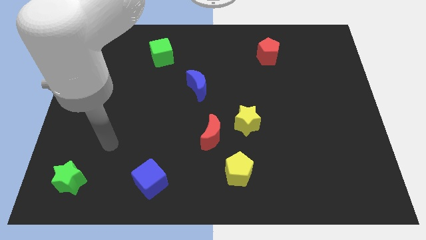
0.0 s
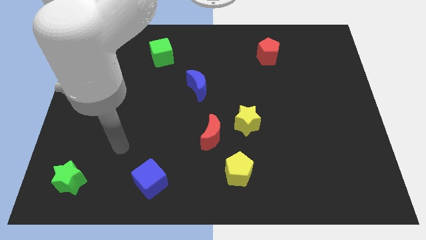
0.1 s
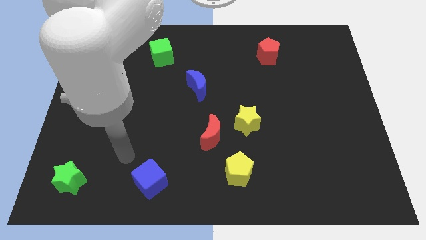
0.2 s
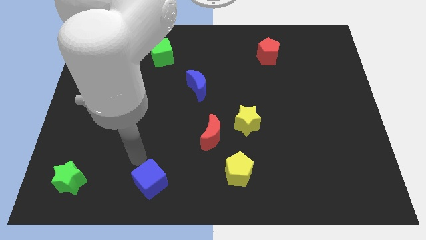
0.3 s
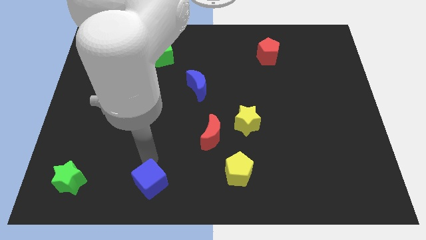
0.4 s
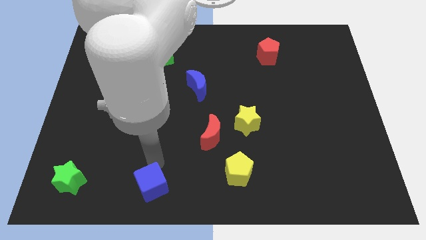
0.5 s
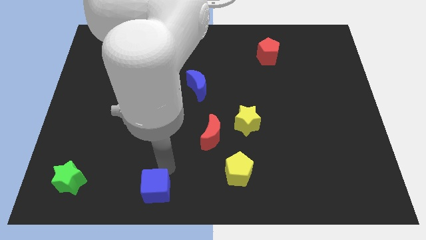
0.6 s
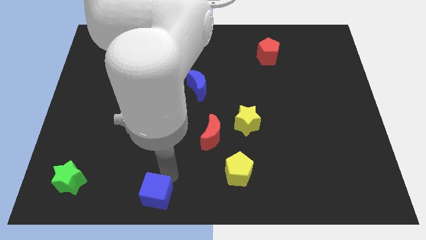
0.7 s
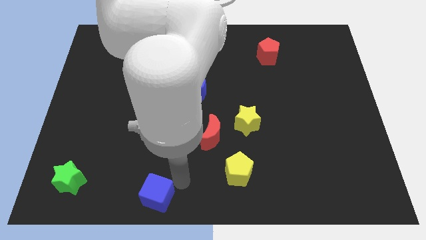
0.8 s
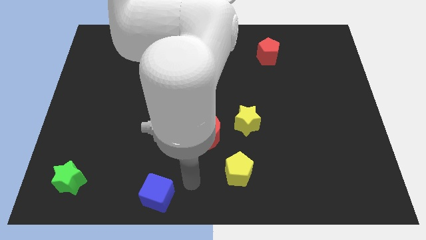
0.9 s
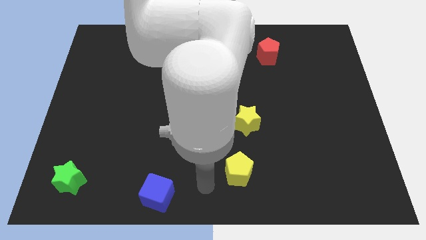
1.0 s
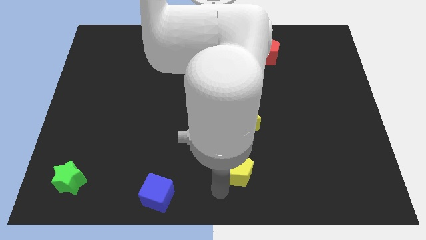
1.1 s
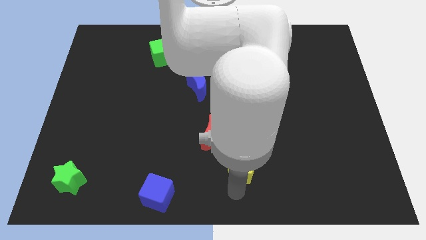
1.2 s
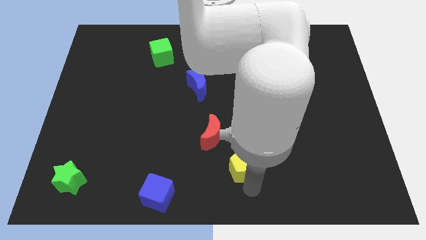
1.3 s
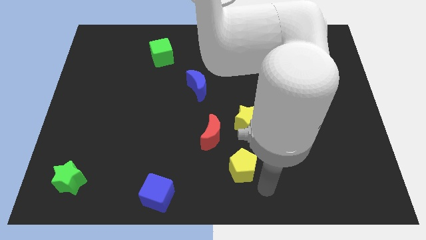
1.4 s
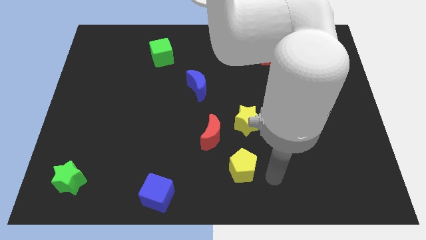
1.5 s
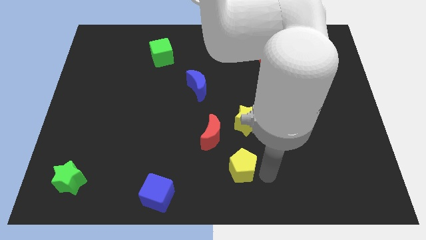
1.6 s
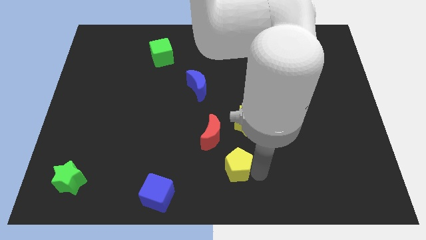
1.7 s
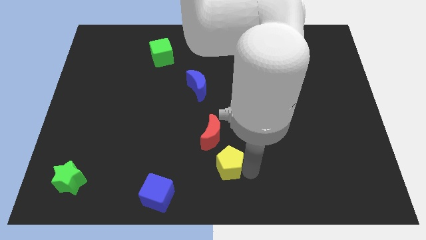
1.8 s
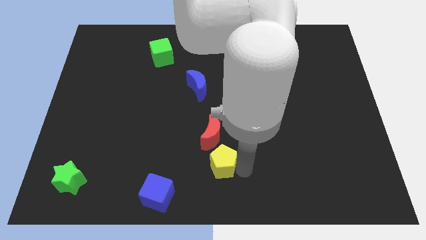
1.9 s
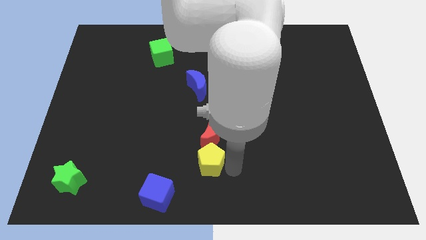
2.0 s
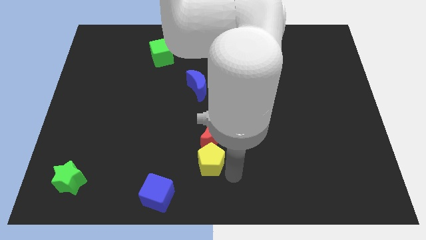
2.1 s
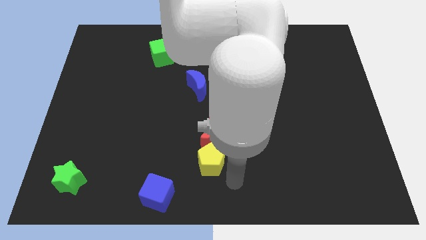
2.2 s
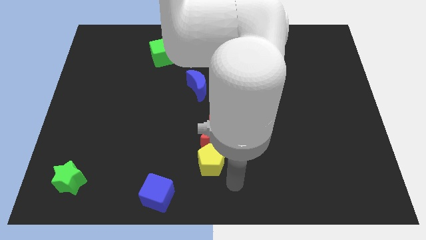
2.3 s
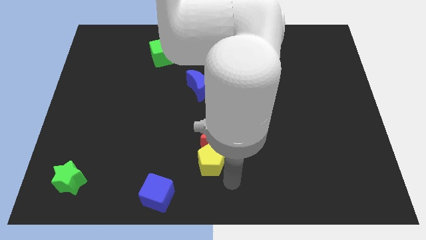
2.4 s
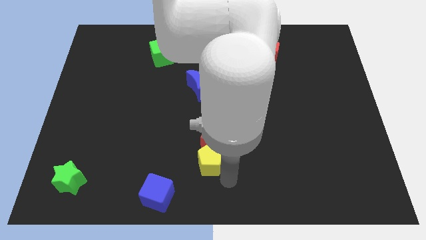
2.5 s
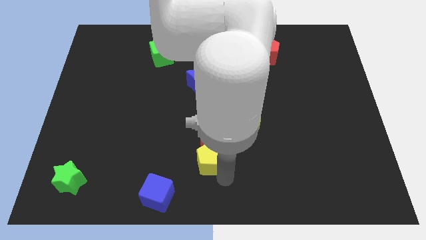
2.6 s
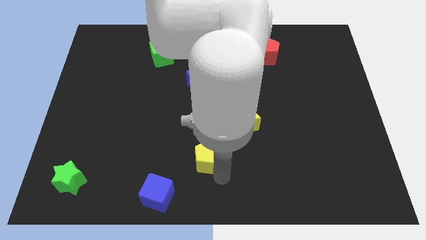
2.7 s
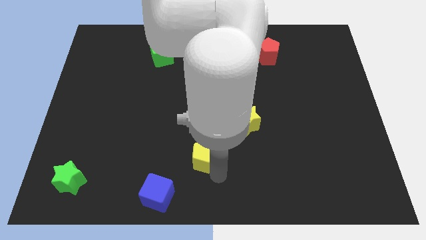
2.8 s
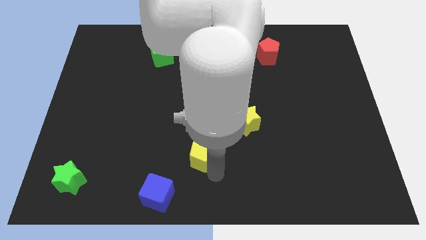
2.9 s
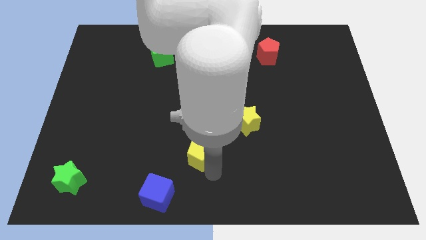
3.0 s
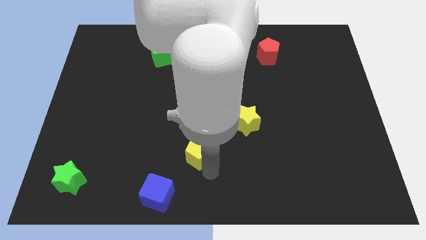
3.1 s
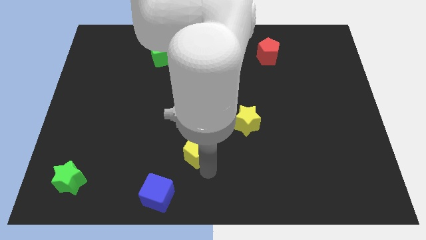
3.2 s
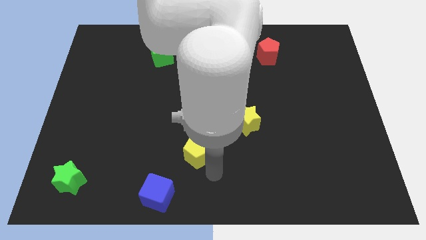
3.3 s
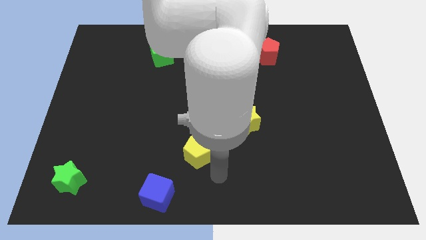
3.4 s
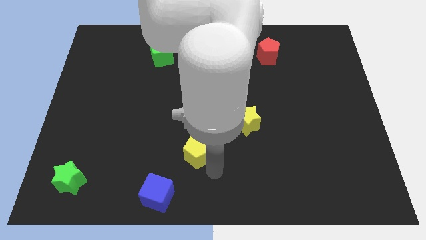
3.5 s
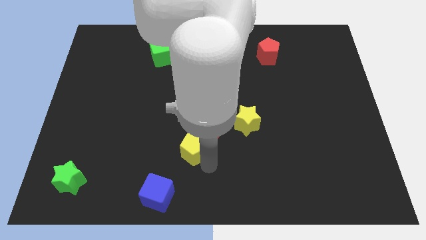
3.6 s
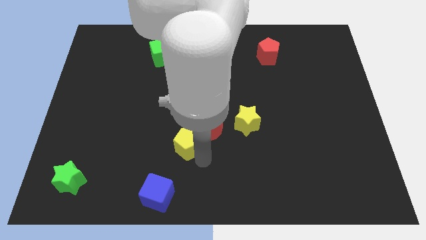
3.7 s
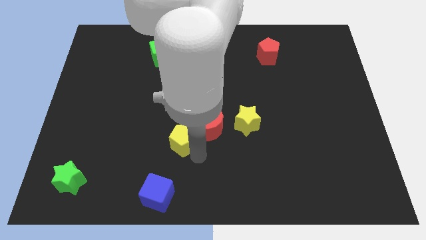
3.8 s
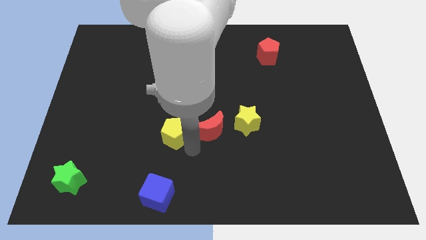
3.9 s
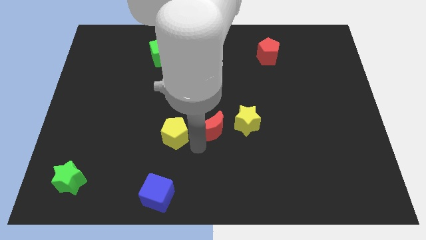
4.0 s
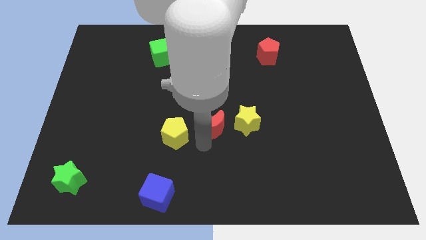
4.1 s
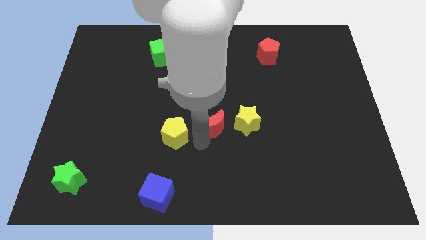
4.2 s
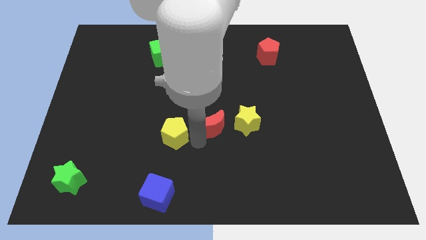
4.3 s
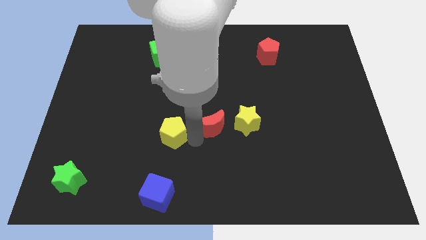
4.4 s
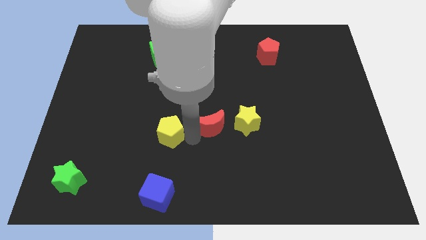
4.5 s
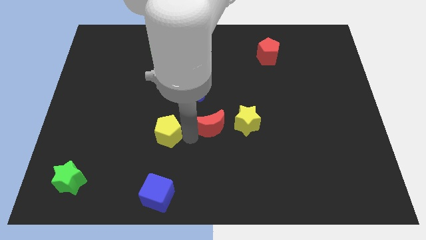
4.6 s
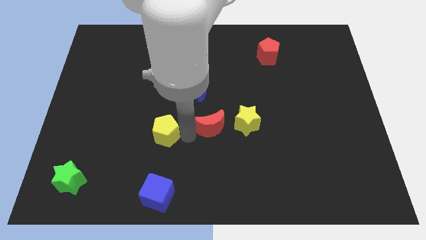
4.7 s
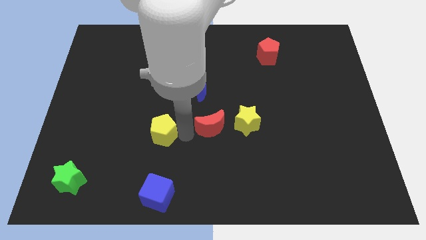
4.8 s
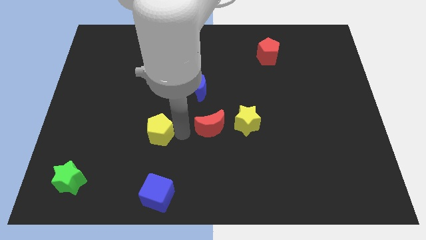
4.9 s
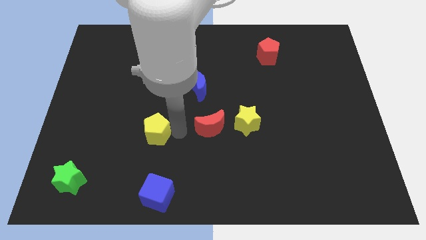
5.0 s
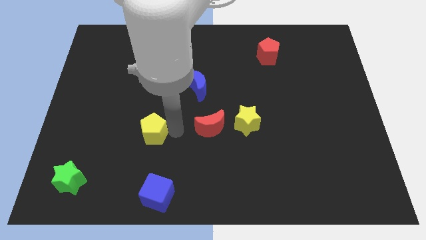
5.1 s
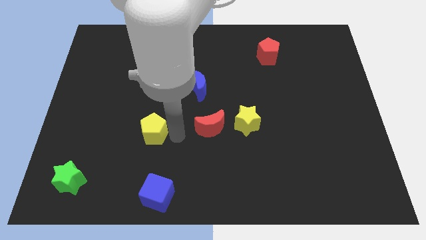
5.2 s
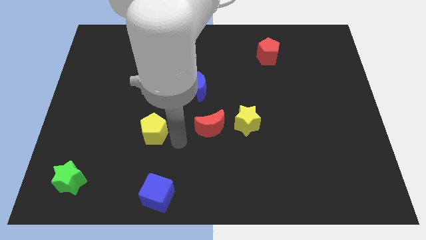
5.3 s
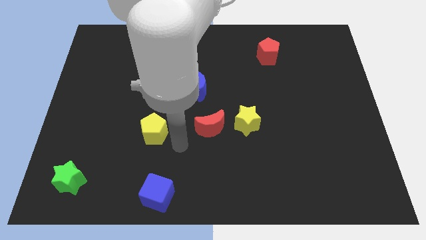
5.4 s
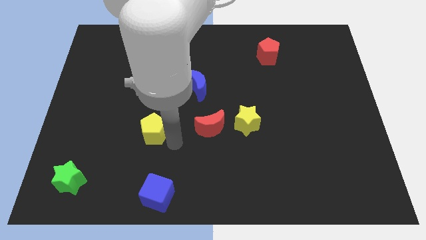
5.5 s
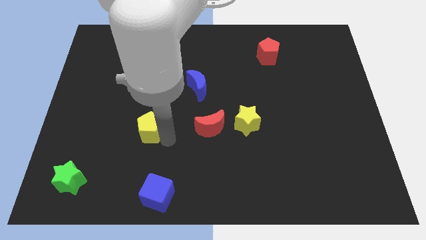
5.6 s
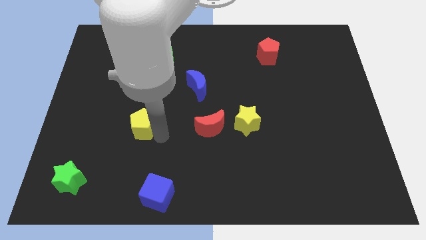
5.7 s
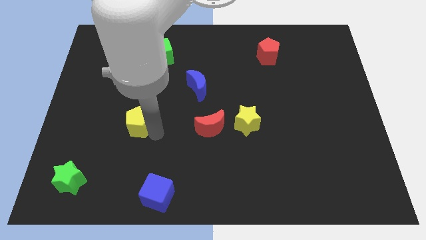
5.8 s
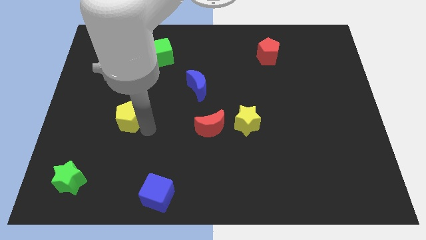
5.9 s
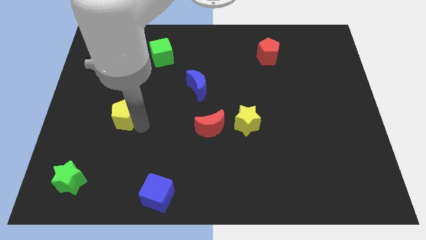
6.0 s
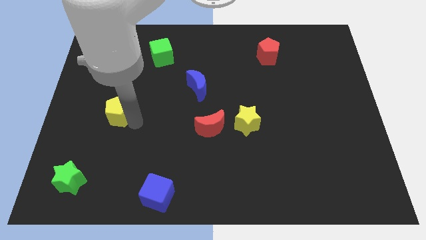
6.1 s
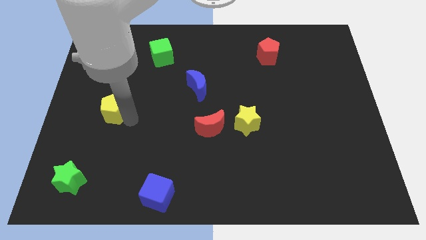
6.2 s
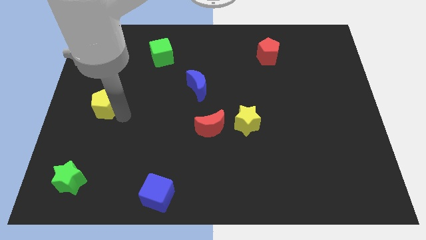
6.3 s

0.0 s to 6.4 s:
push the yellow pentagon to the left side of the board

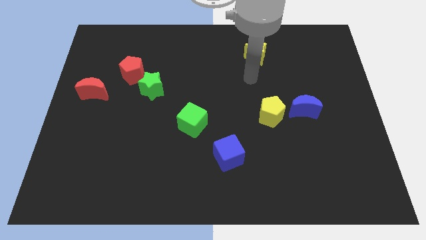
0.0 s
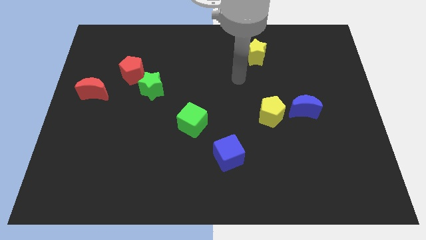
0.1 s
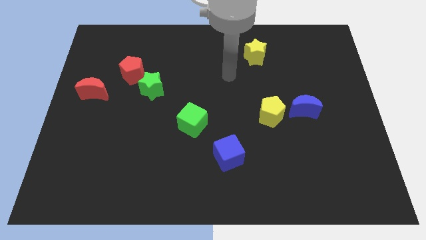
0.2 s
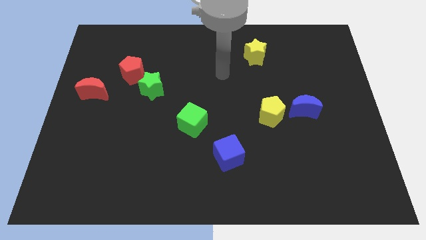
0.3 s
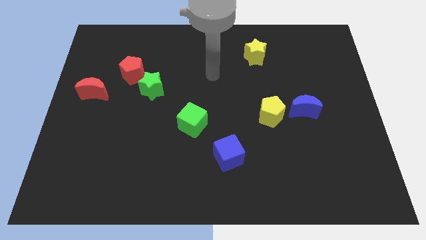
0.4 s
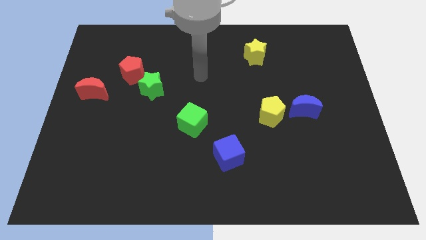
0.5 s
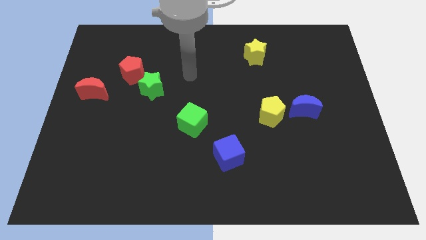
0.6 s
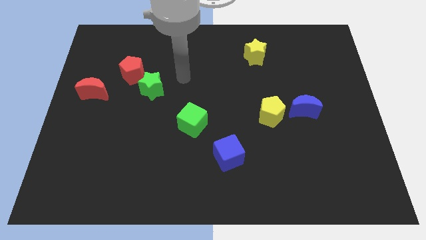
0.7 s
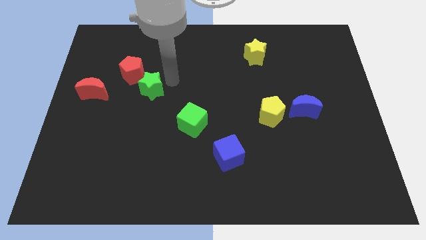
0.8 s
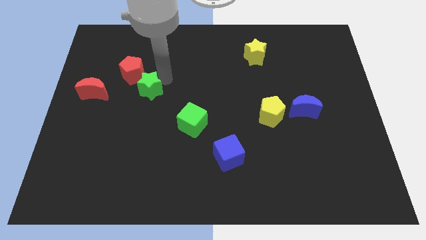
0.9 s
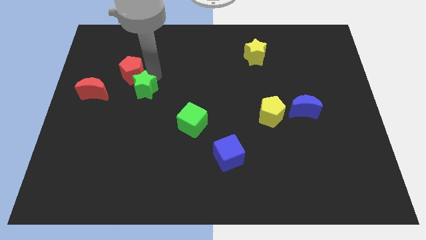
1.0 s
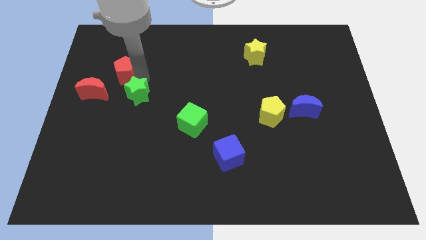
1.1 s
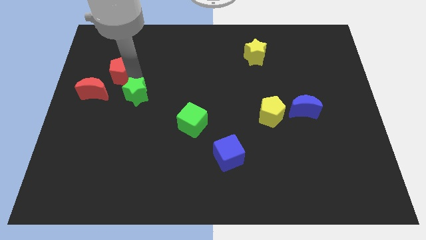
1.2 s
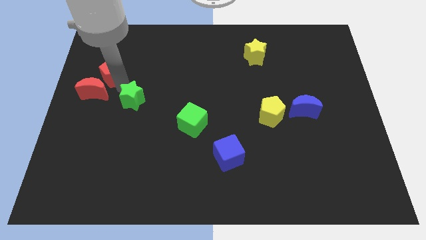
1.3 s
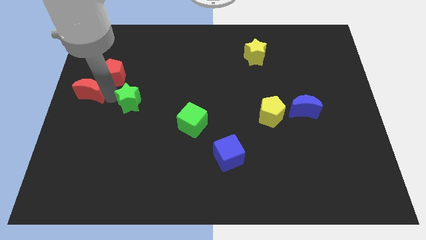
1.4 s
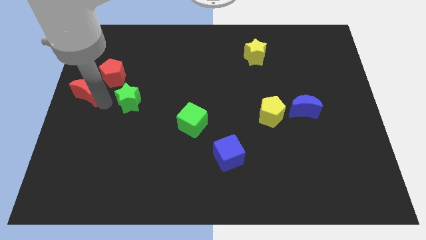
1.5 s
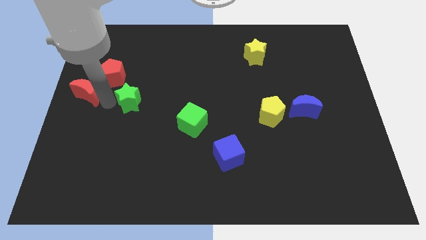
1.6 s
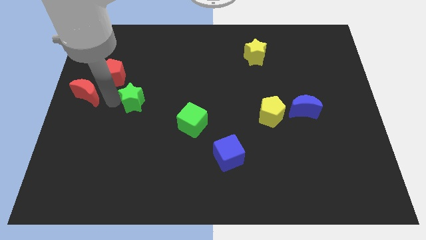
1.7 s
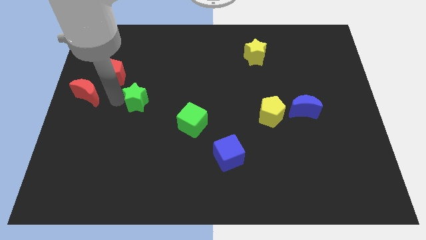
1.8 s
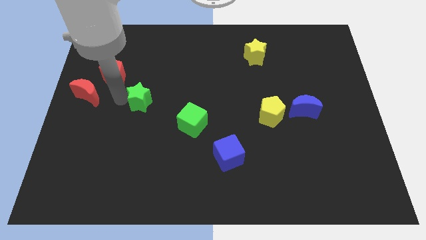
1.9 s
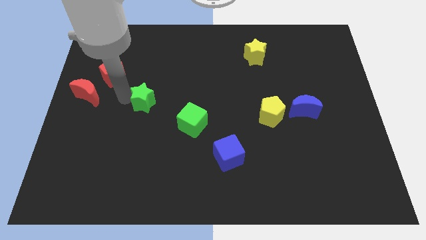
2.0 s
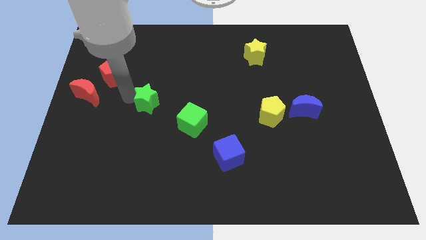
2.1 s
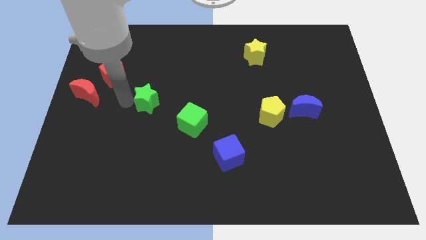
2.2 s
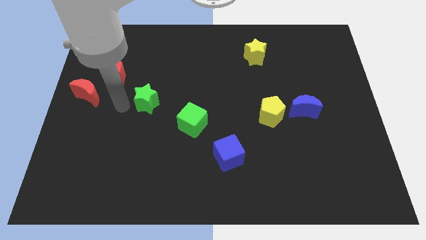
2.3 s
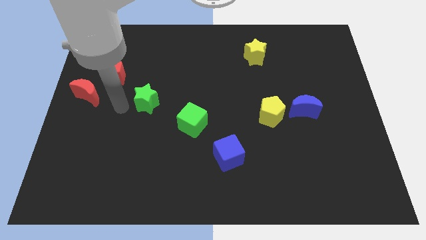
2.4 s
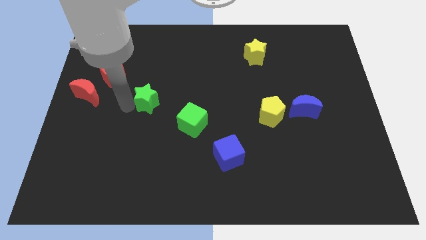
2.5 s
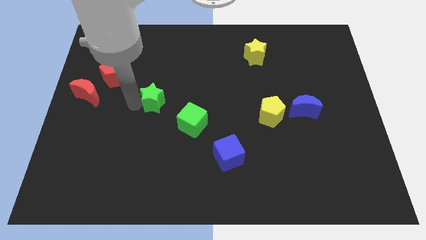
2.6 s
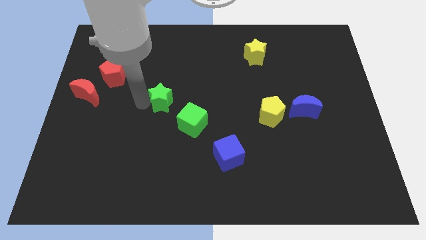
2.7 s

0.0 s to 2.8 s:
move the green star to the middle
